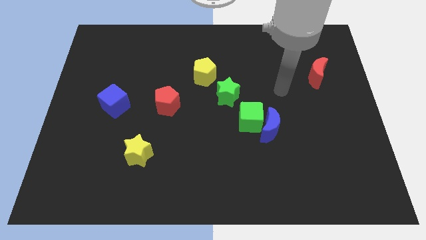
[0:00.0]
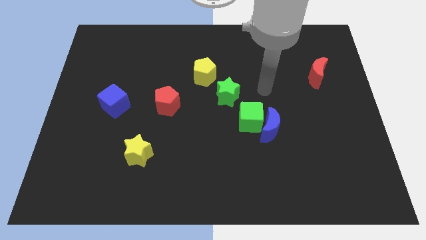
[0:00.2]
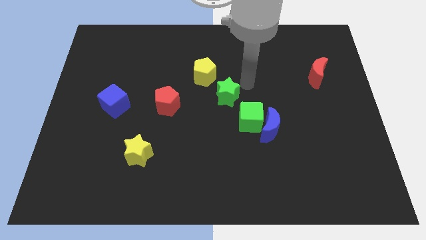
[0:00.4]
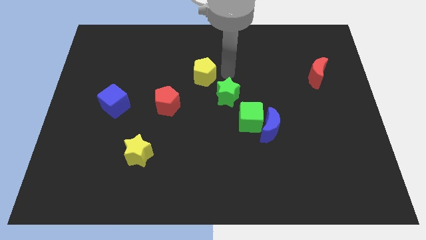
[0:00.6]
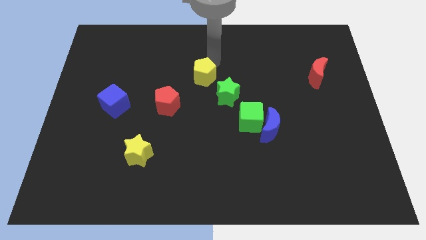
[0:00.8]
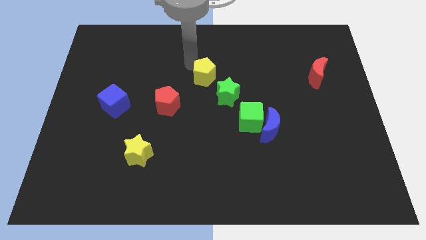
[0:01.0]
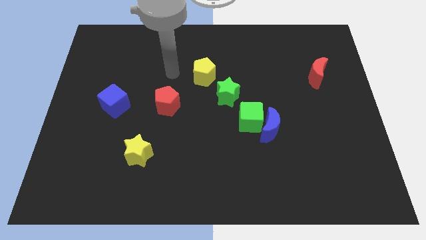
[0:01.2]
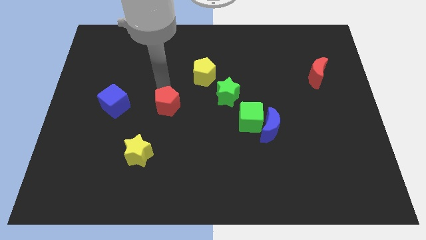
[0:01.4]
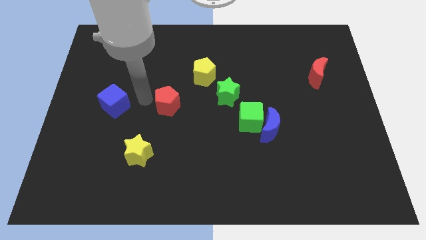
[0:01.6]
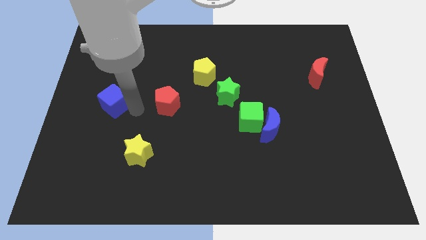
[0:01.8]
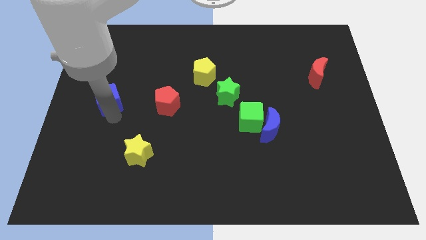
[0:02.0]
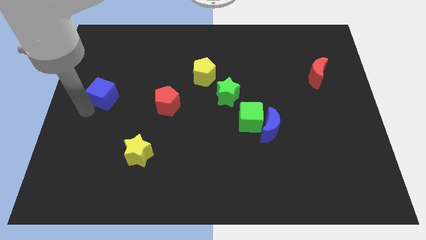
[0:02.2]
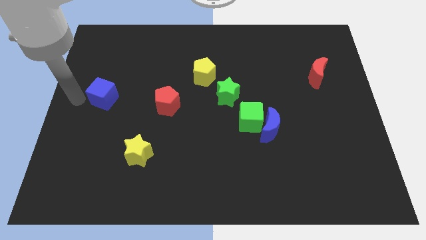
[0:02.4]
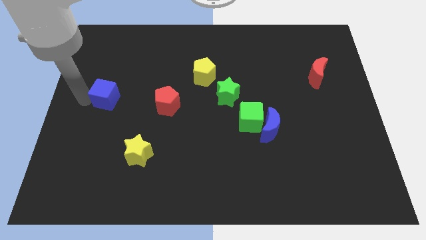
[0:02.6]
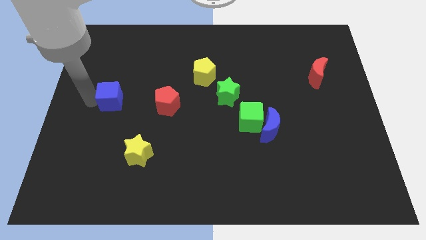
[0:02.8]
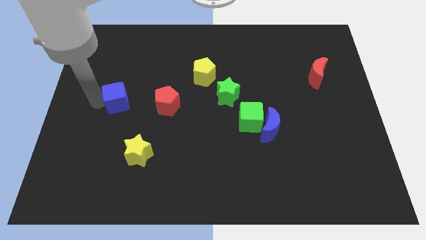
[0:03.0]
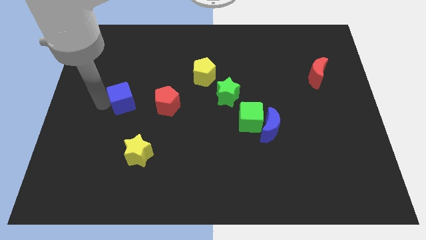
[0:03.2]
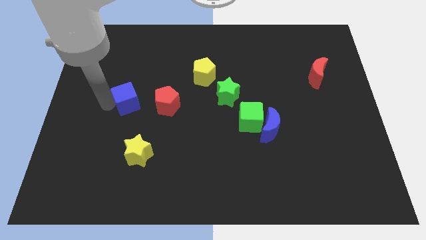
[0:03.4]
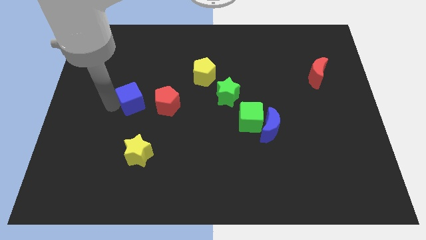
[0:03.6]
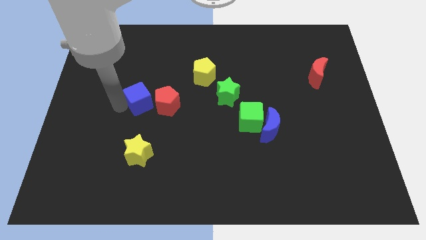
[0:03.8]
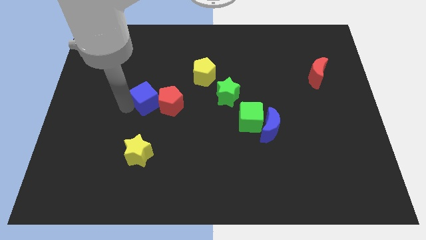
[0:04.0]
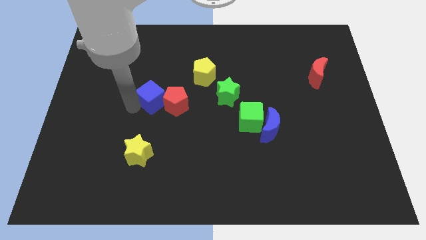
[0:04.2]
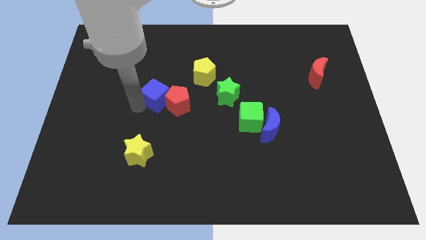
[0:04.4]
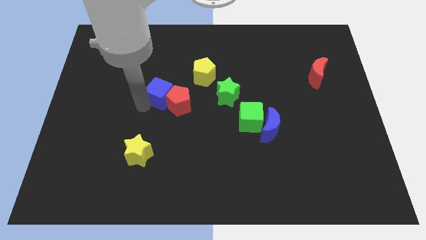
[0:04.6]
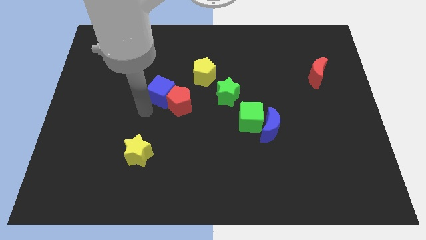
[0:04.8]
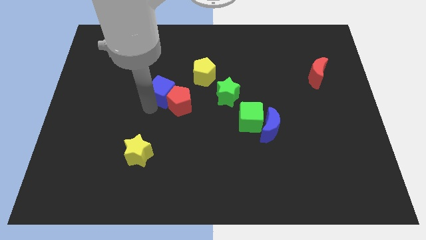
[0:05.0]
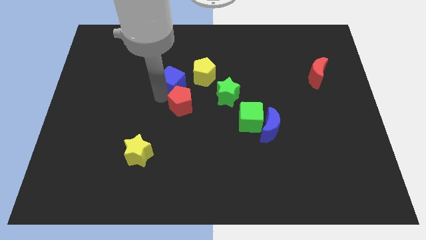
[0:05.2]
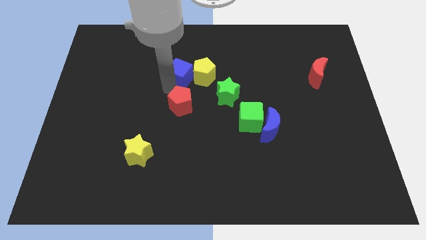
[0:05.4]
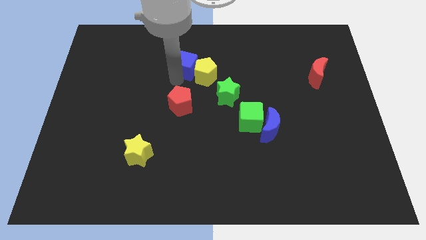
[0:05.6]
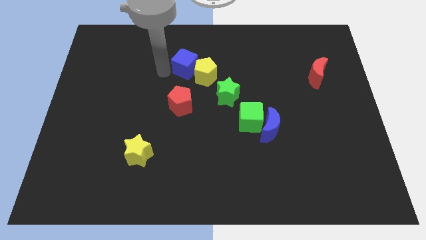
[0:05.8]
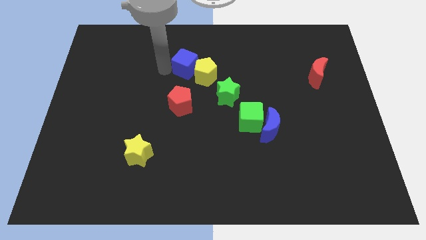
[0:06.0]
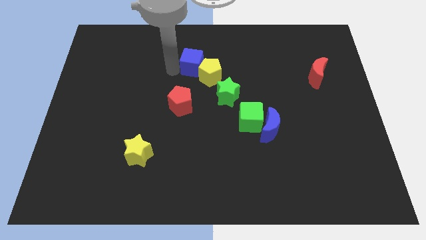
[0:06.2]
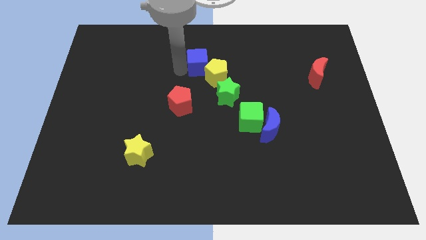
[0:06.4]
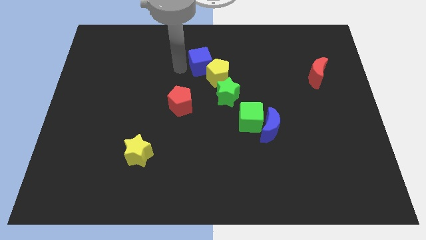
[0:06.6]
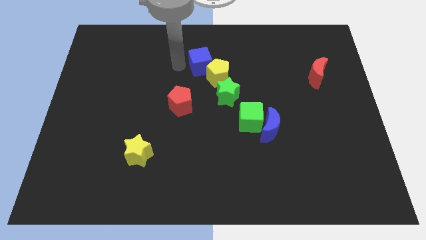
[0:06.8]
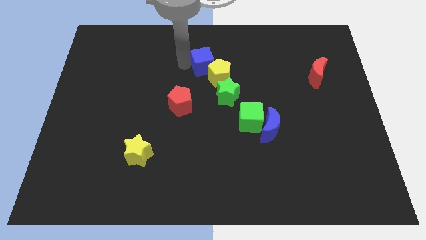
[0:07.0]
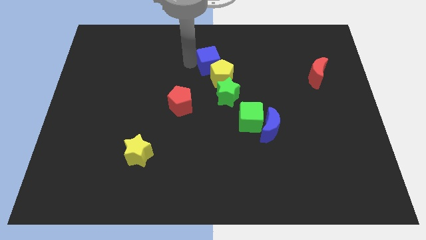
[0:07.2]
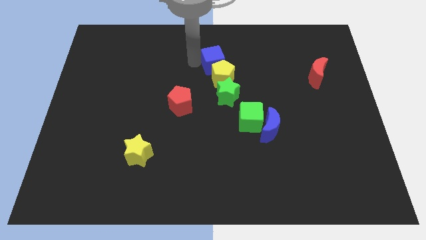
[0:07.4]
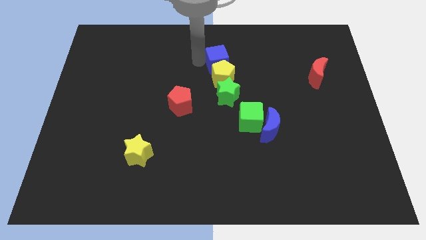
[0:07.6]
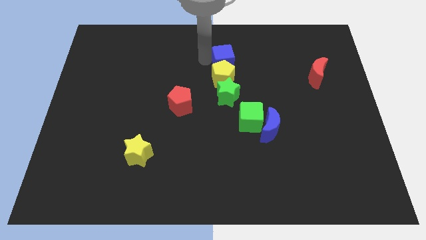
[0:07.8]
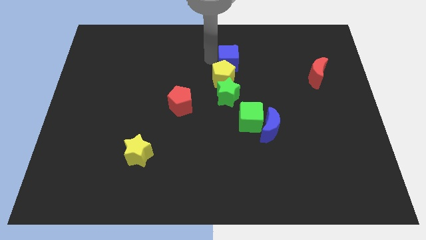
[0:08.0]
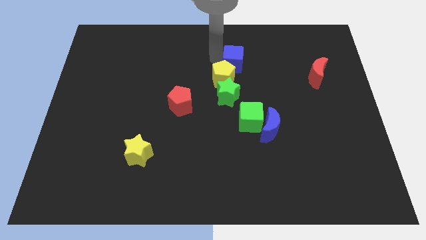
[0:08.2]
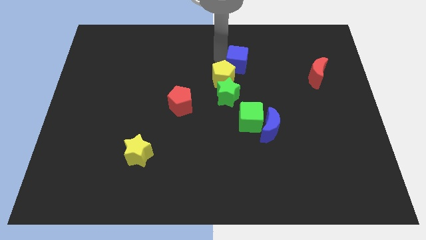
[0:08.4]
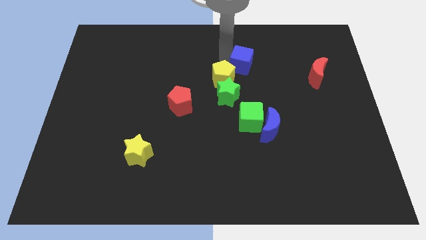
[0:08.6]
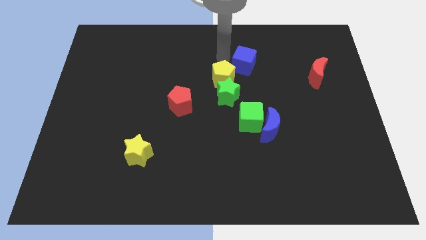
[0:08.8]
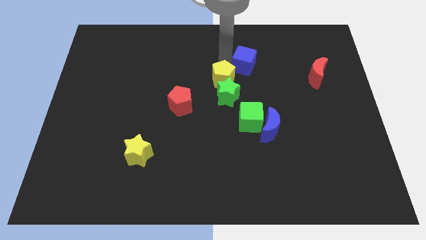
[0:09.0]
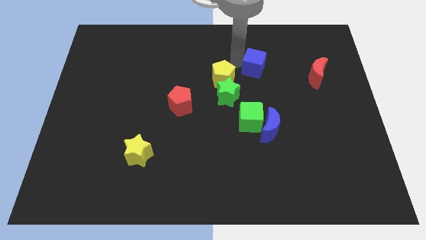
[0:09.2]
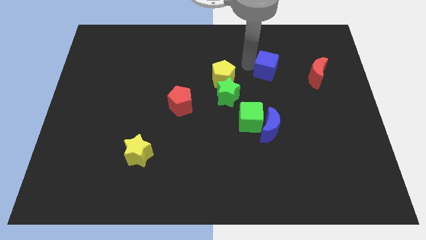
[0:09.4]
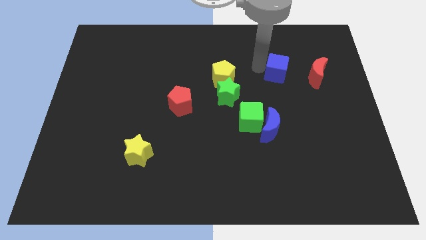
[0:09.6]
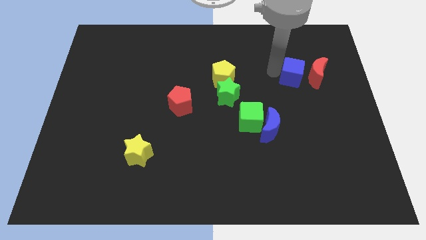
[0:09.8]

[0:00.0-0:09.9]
push the blue cube close to the red moon

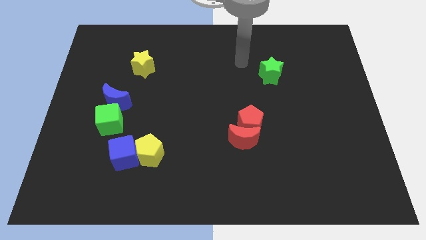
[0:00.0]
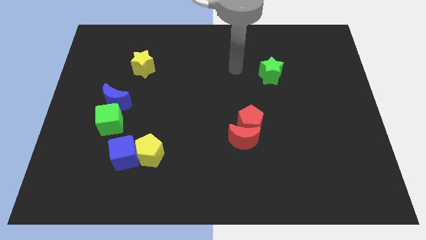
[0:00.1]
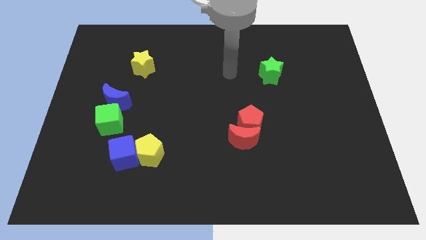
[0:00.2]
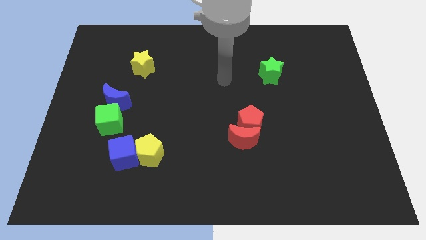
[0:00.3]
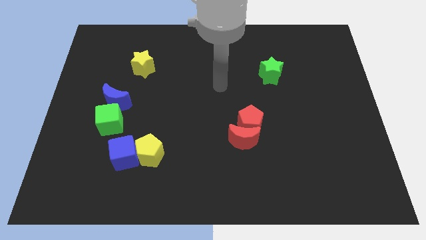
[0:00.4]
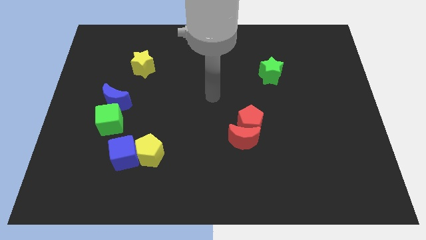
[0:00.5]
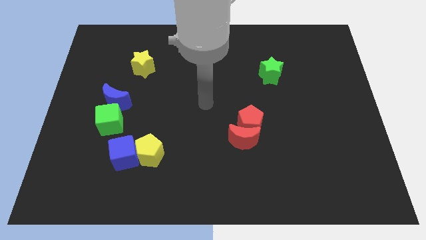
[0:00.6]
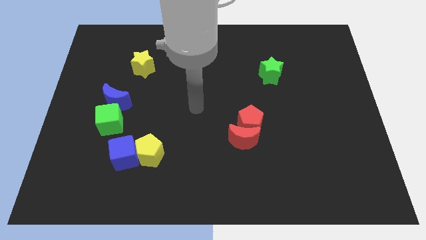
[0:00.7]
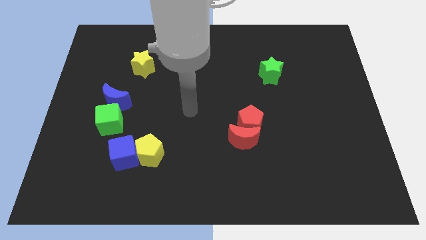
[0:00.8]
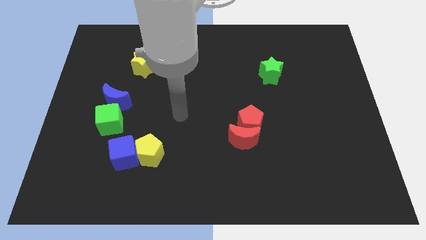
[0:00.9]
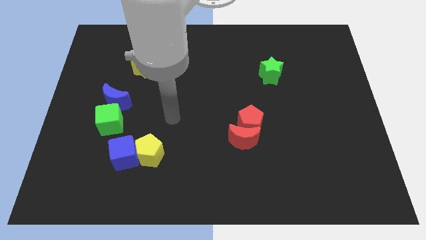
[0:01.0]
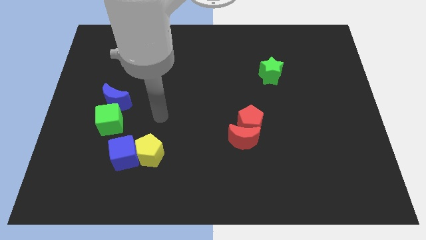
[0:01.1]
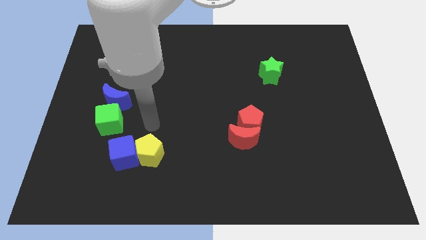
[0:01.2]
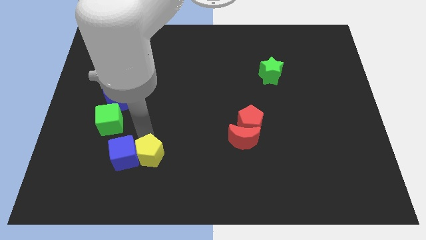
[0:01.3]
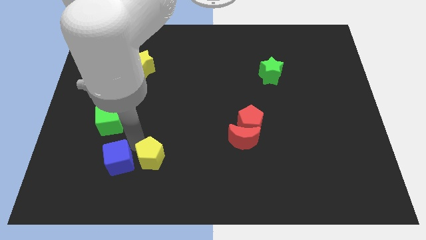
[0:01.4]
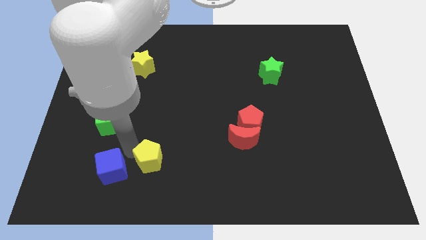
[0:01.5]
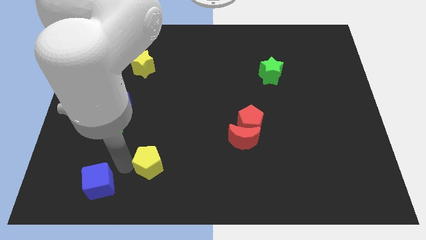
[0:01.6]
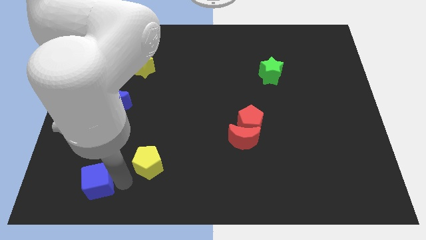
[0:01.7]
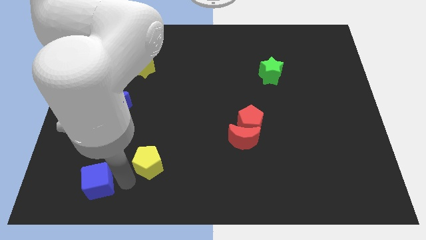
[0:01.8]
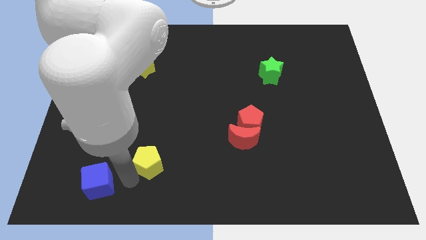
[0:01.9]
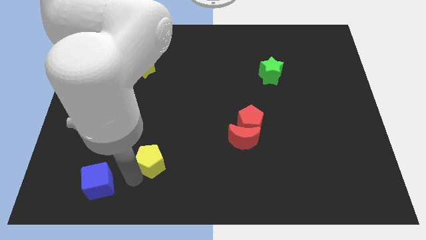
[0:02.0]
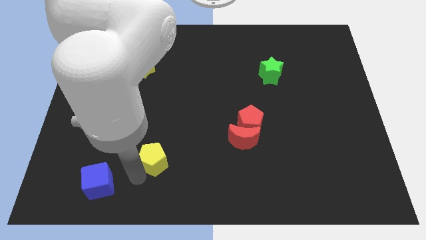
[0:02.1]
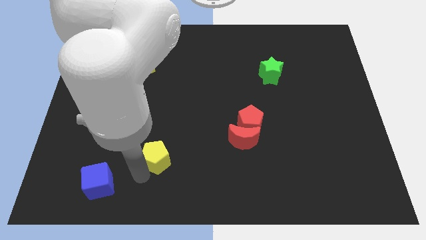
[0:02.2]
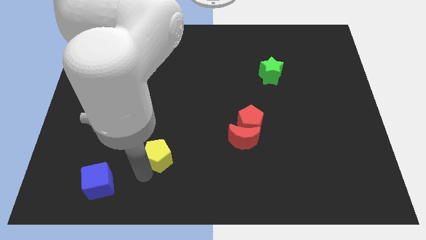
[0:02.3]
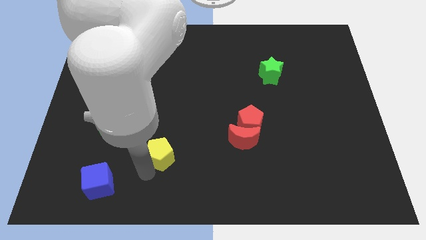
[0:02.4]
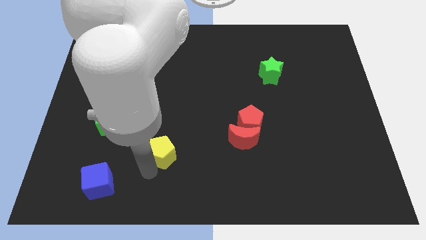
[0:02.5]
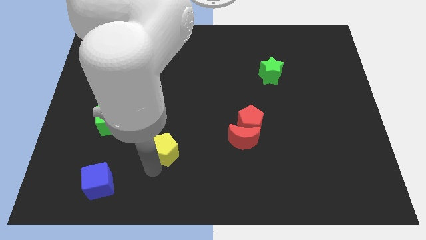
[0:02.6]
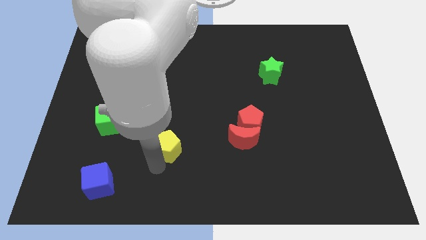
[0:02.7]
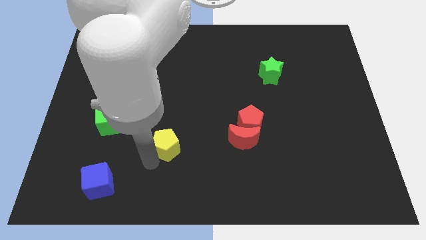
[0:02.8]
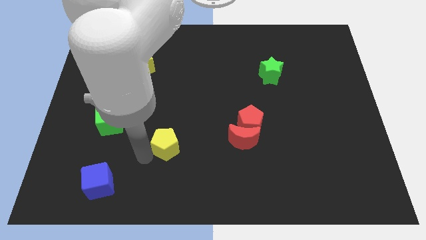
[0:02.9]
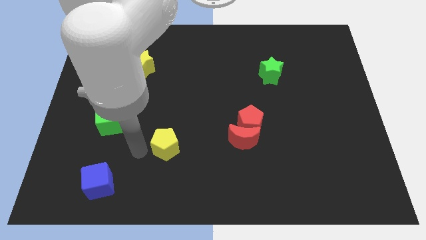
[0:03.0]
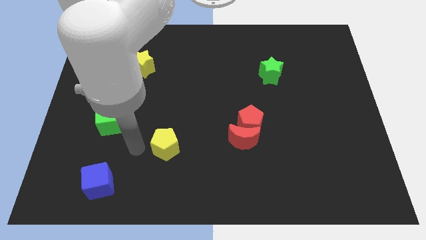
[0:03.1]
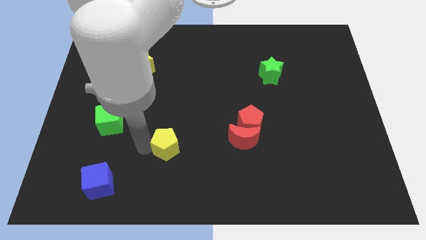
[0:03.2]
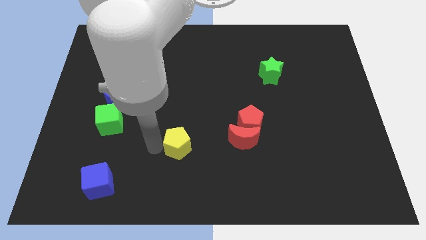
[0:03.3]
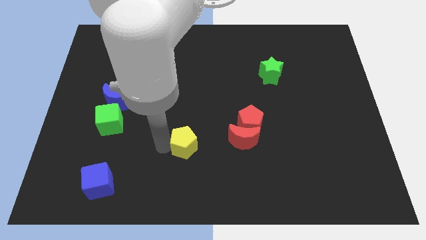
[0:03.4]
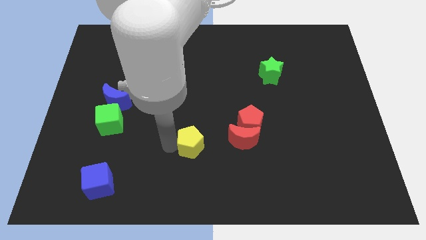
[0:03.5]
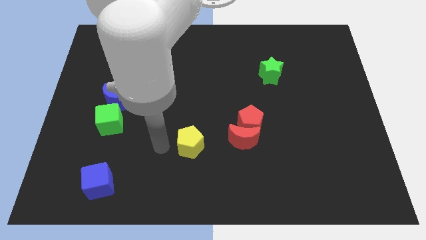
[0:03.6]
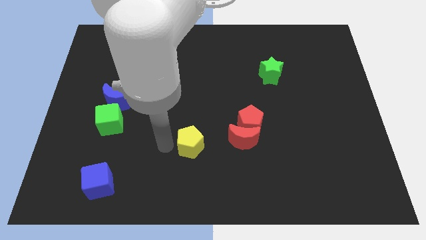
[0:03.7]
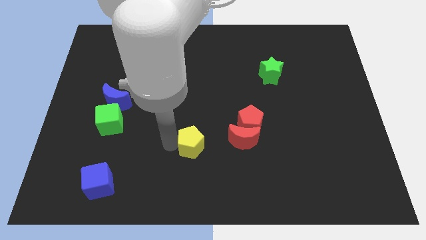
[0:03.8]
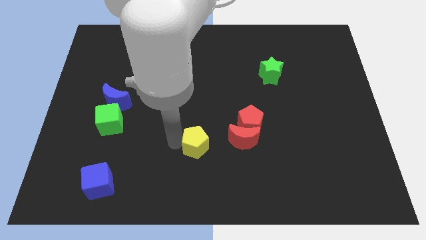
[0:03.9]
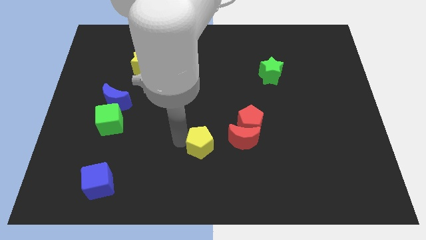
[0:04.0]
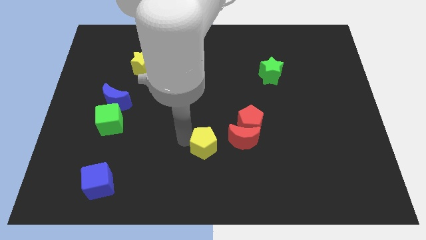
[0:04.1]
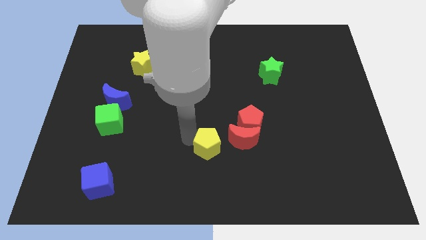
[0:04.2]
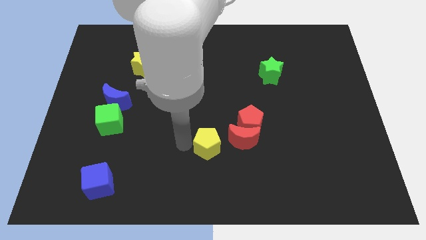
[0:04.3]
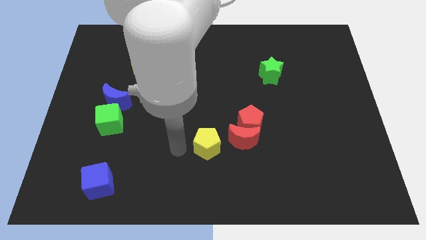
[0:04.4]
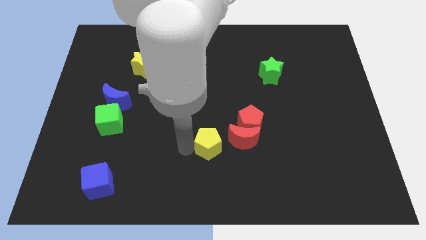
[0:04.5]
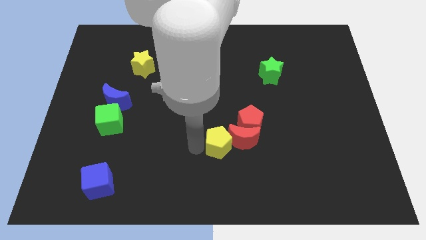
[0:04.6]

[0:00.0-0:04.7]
slide the yellow pentagon close to the red moon
